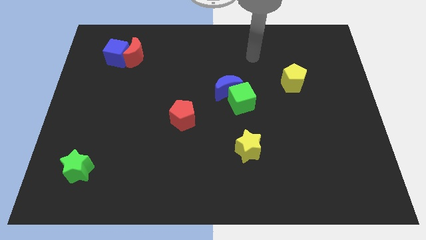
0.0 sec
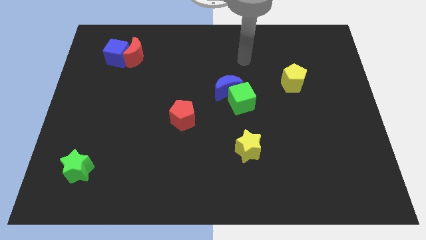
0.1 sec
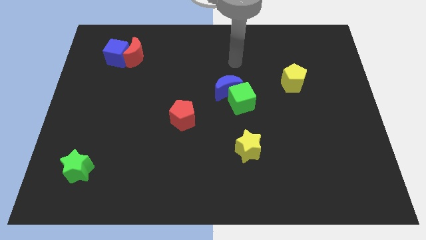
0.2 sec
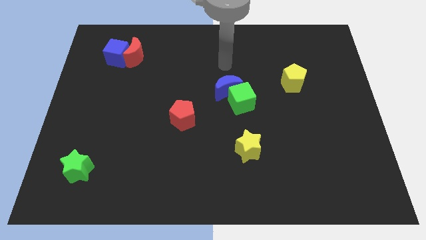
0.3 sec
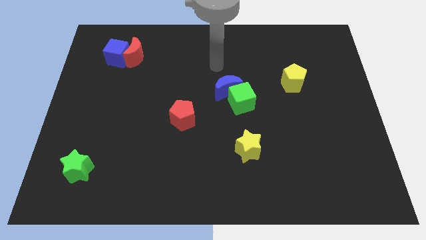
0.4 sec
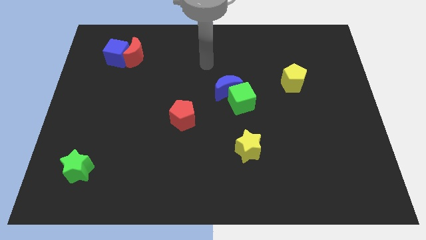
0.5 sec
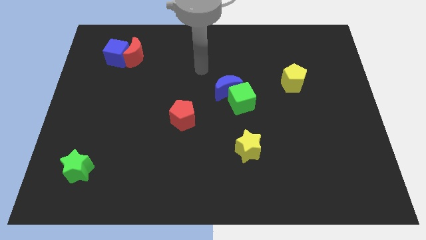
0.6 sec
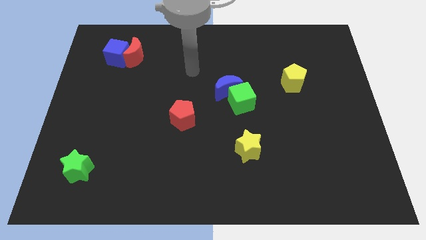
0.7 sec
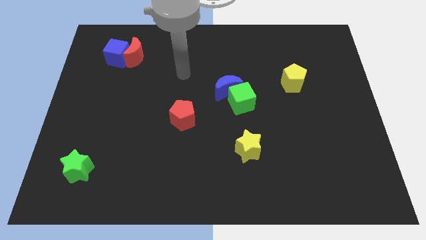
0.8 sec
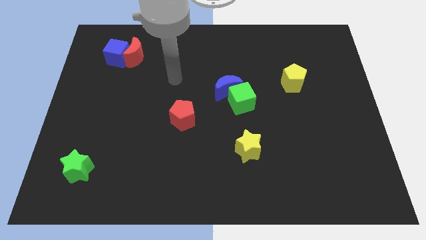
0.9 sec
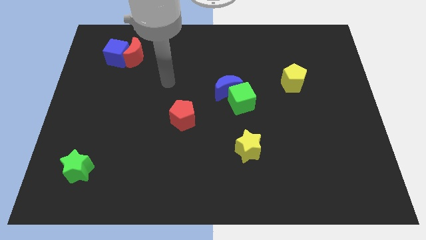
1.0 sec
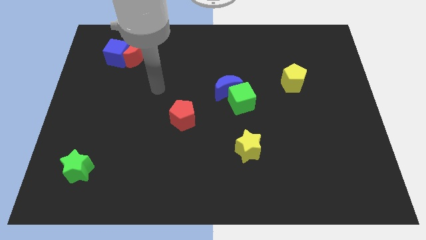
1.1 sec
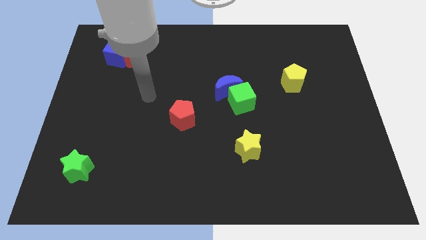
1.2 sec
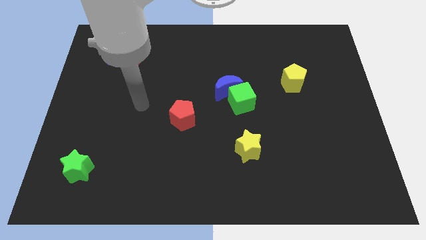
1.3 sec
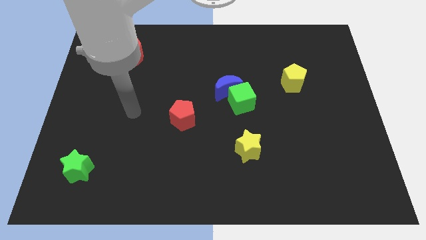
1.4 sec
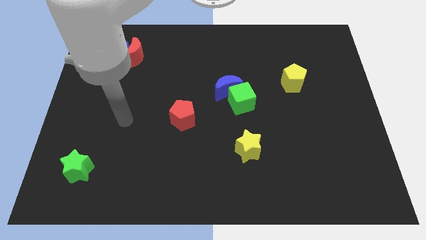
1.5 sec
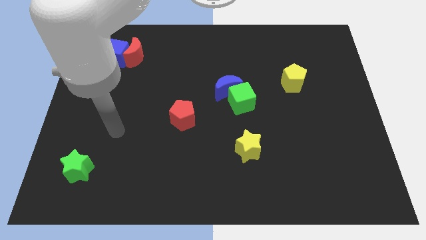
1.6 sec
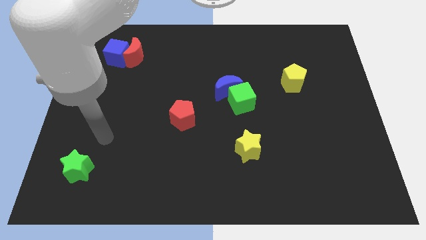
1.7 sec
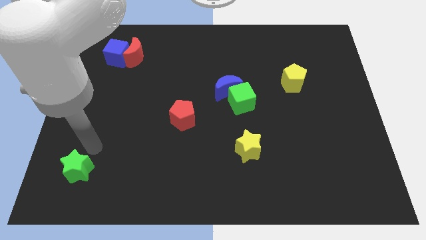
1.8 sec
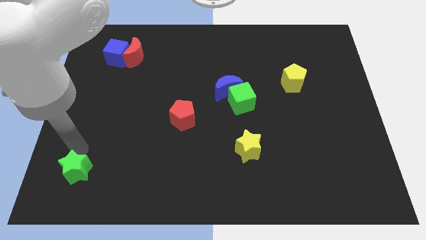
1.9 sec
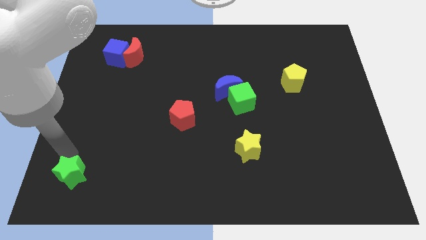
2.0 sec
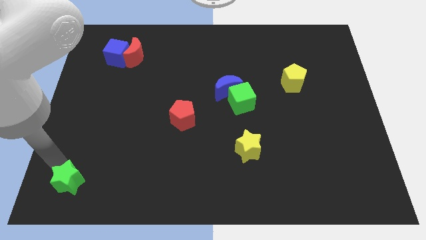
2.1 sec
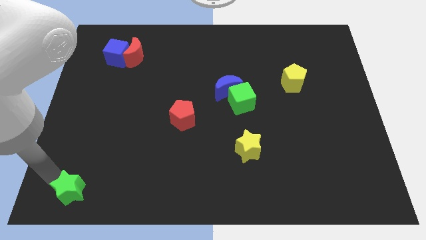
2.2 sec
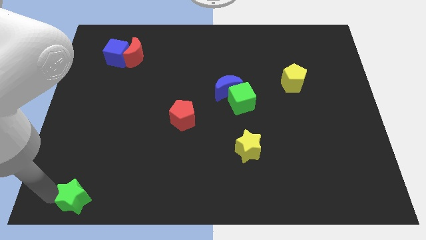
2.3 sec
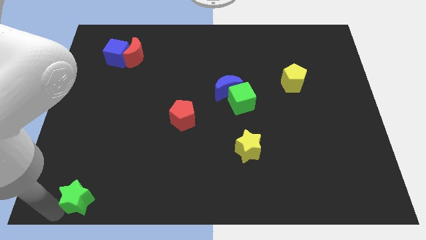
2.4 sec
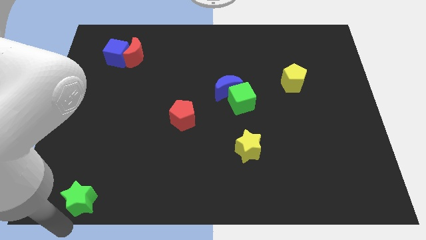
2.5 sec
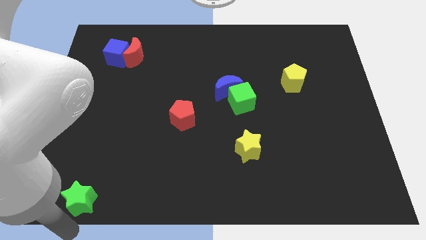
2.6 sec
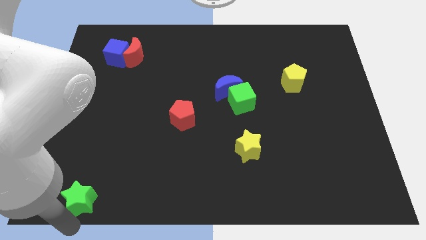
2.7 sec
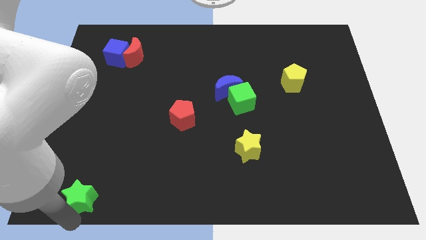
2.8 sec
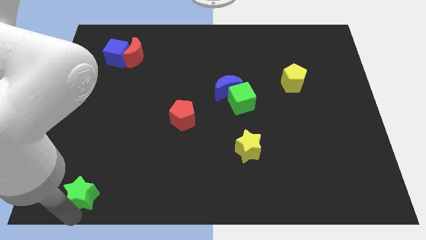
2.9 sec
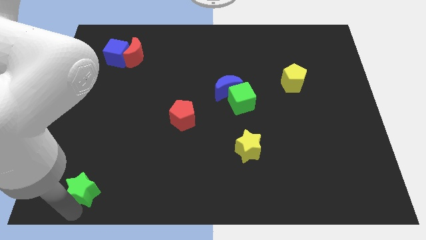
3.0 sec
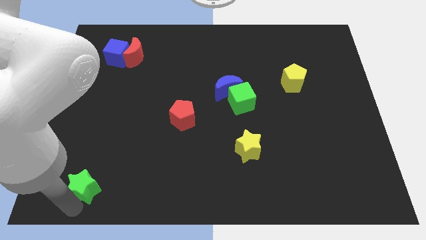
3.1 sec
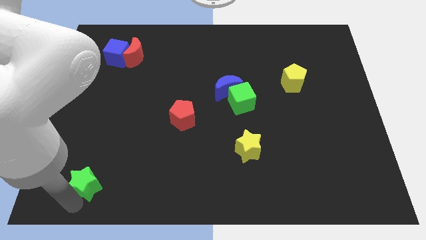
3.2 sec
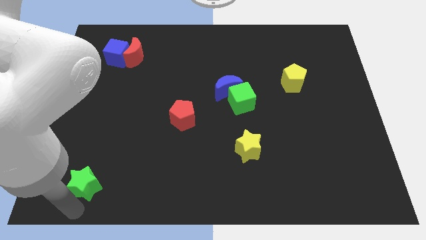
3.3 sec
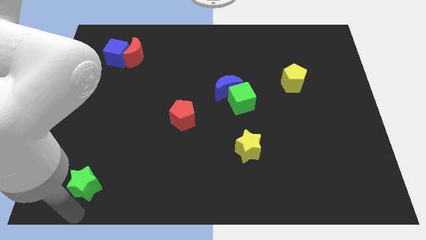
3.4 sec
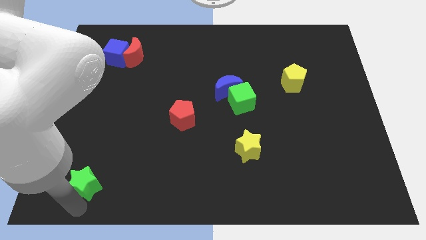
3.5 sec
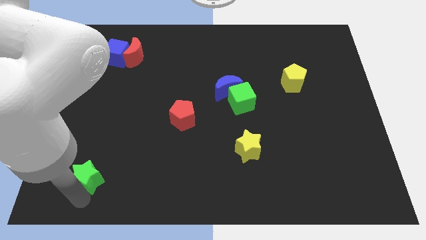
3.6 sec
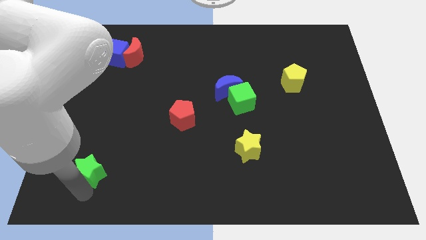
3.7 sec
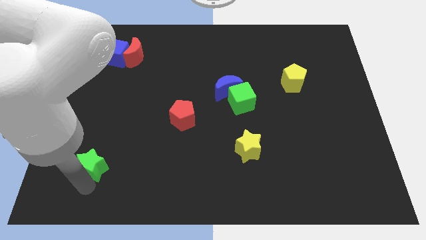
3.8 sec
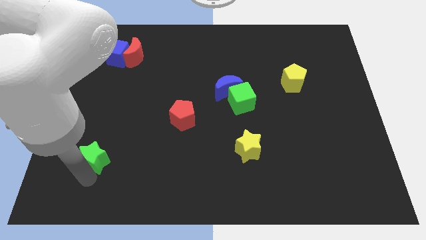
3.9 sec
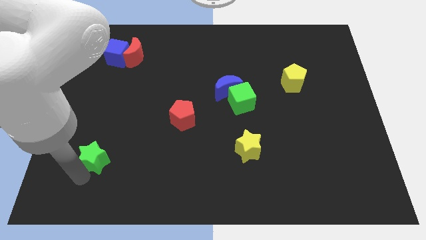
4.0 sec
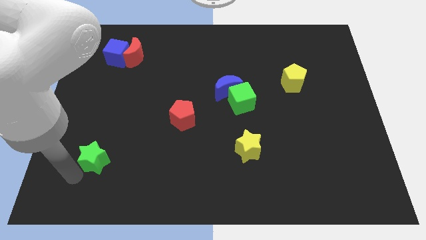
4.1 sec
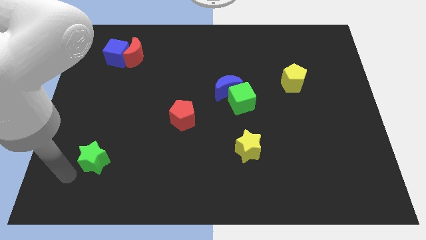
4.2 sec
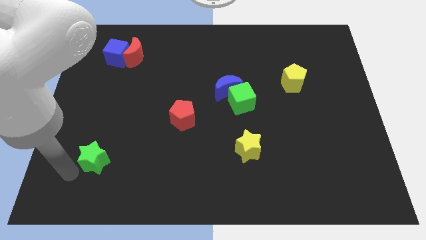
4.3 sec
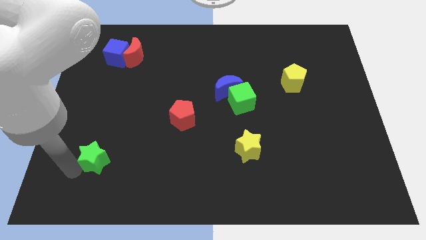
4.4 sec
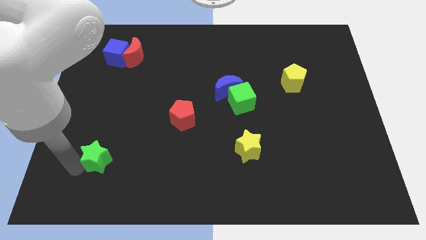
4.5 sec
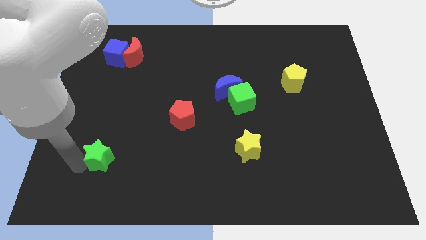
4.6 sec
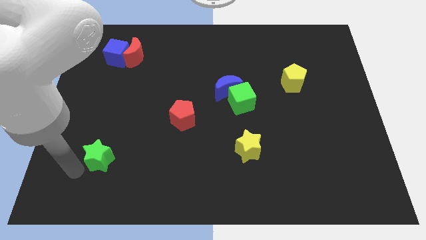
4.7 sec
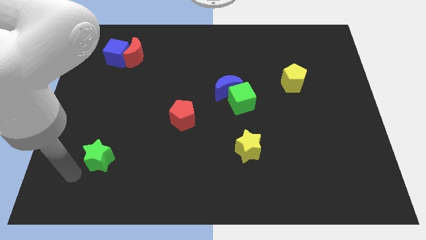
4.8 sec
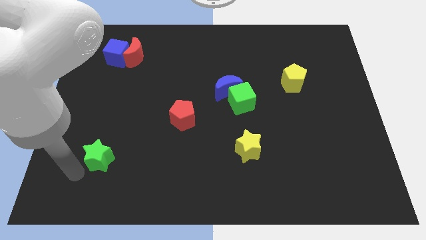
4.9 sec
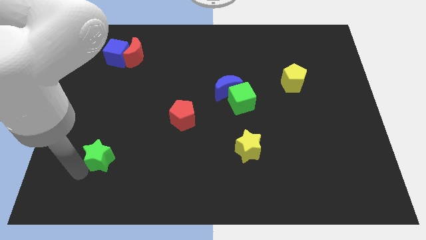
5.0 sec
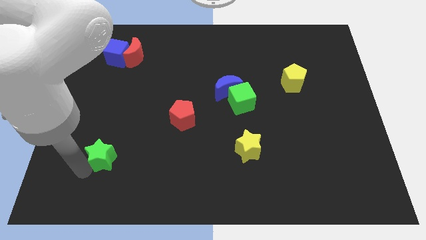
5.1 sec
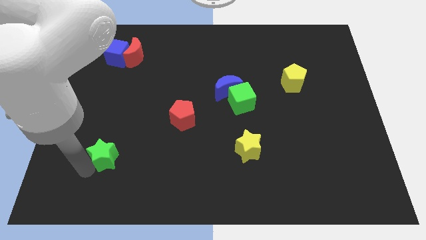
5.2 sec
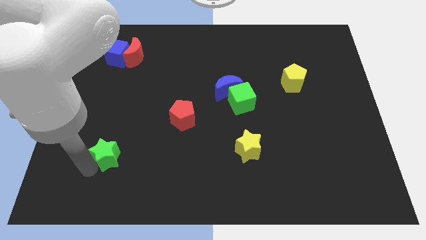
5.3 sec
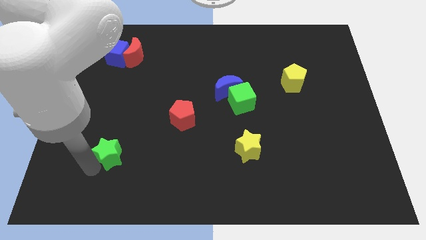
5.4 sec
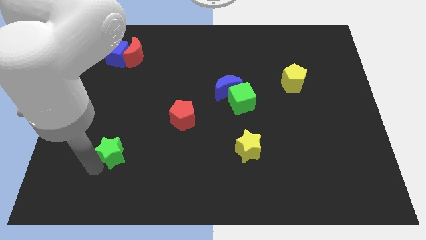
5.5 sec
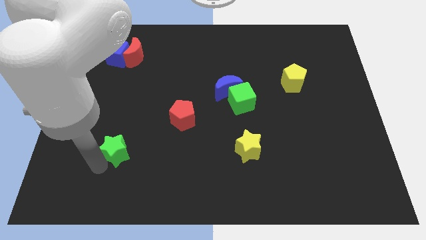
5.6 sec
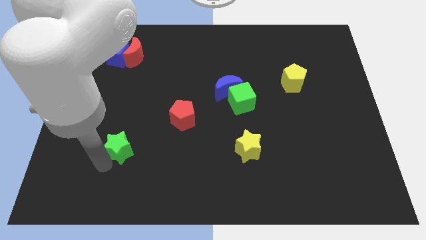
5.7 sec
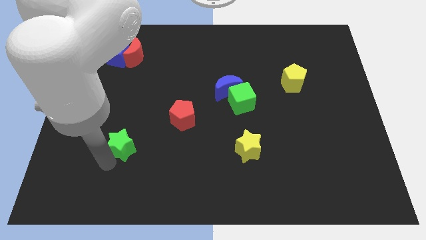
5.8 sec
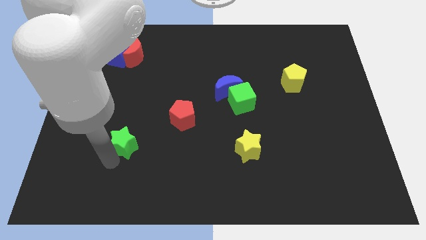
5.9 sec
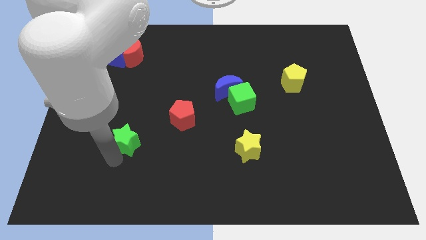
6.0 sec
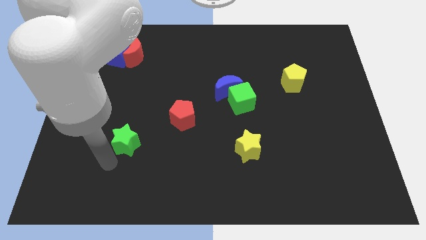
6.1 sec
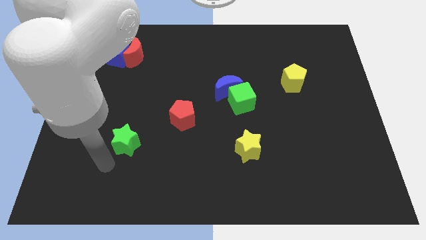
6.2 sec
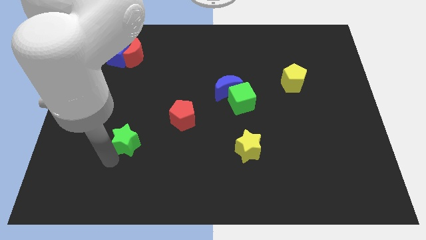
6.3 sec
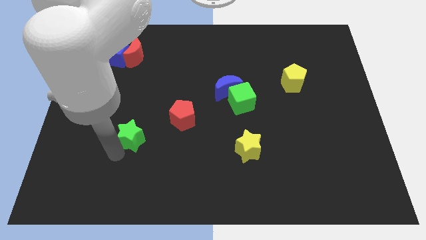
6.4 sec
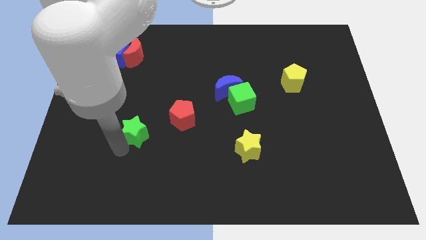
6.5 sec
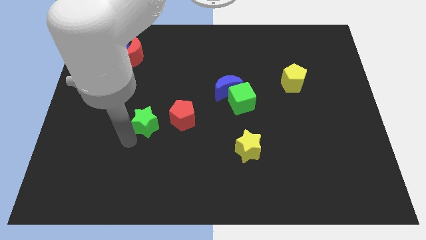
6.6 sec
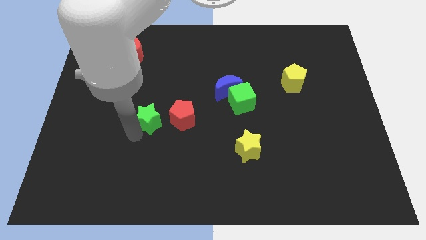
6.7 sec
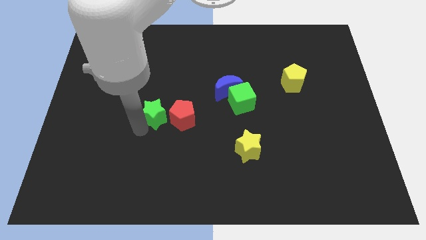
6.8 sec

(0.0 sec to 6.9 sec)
push the green star up and right

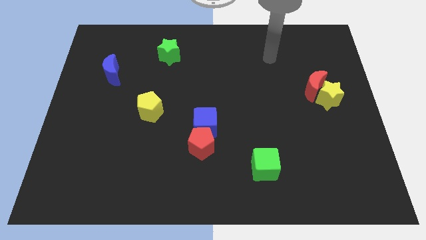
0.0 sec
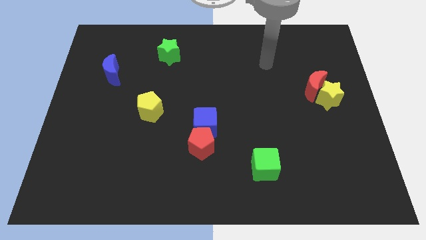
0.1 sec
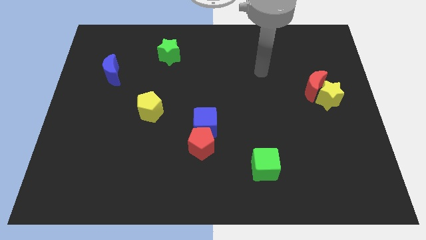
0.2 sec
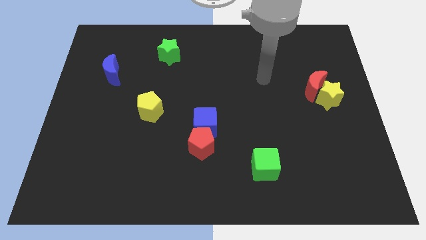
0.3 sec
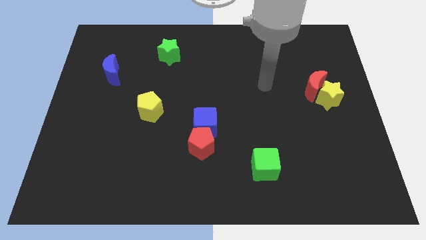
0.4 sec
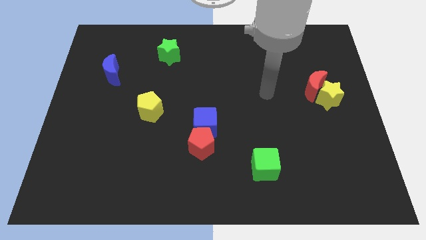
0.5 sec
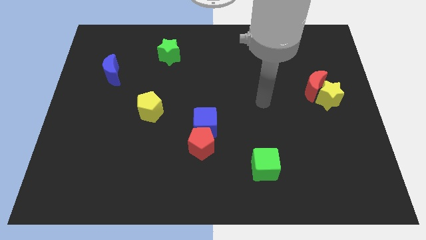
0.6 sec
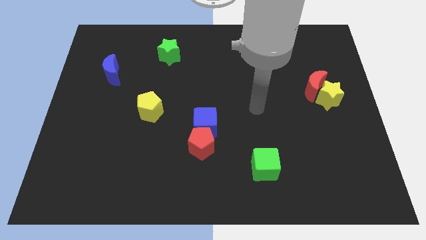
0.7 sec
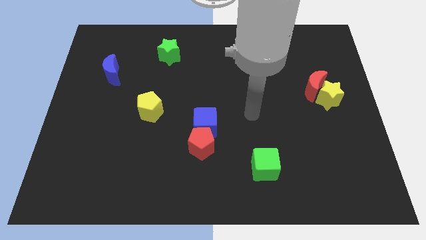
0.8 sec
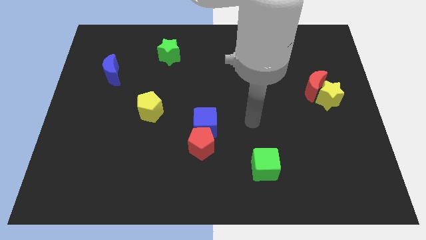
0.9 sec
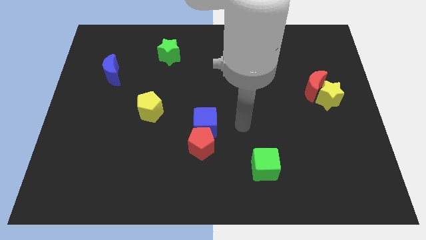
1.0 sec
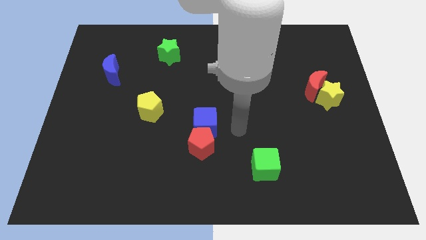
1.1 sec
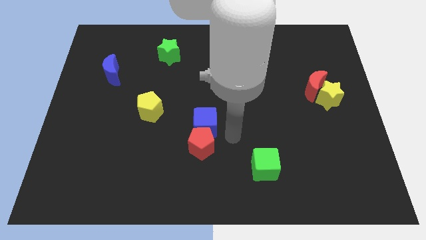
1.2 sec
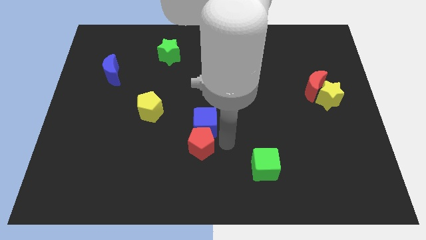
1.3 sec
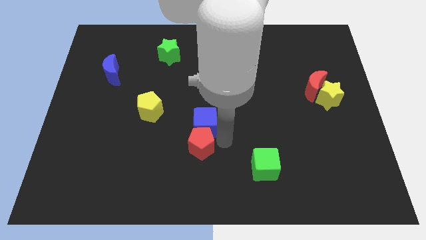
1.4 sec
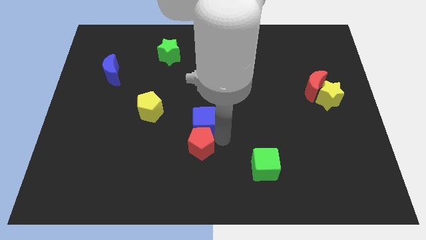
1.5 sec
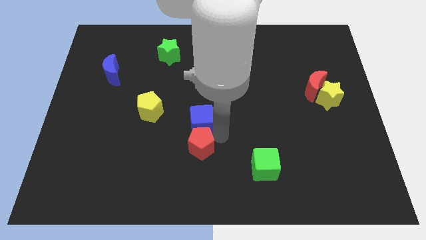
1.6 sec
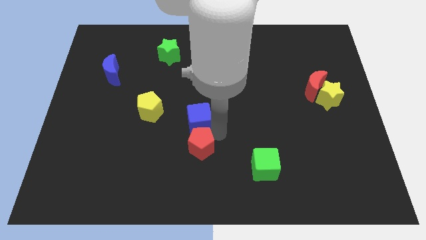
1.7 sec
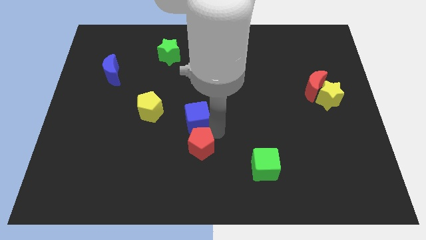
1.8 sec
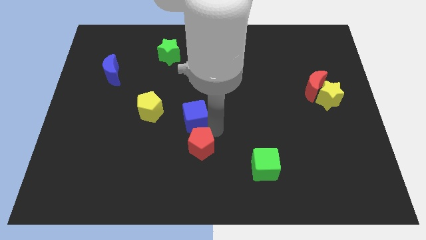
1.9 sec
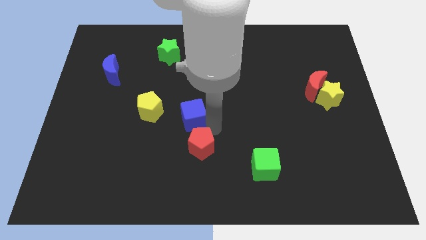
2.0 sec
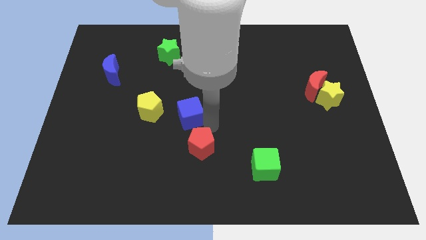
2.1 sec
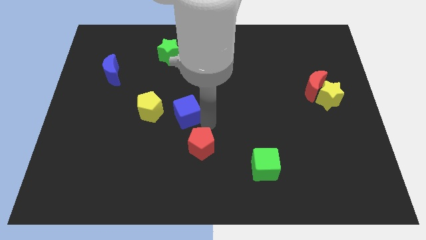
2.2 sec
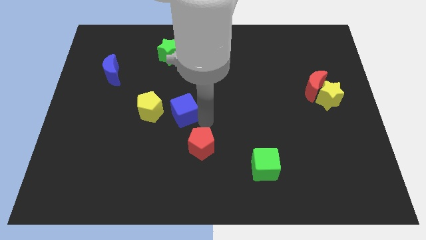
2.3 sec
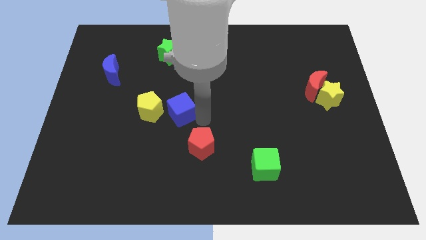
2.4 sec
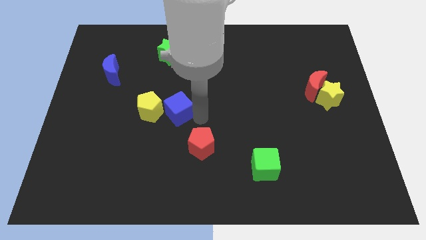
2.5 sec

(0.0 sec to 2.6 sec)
slightly move the blue cube upwards and left
